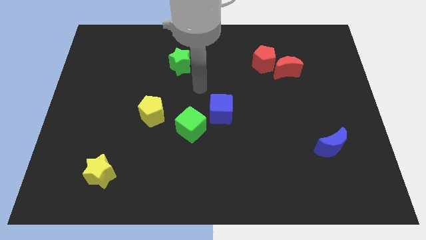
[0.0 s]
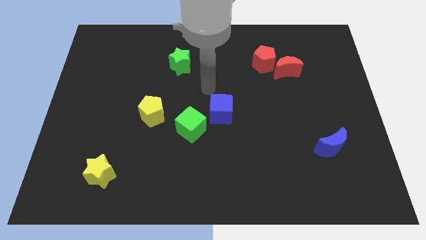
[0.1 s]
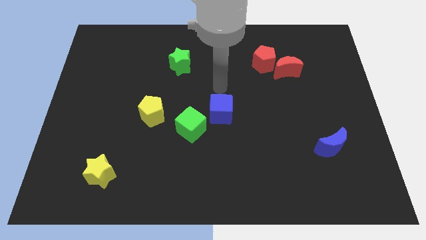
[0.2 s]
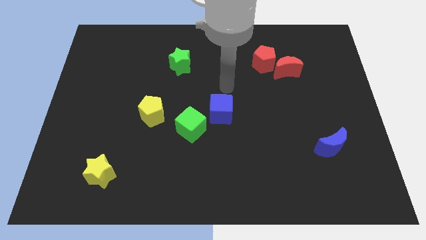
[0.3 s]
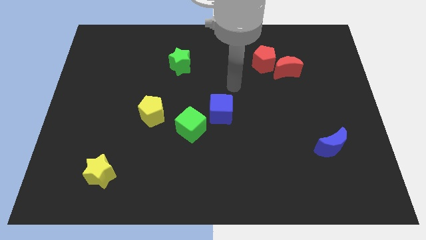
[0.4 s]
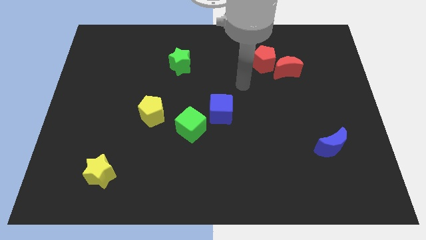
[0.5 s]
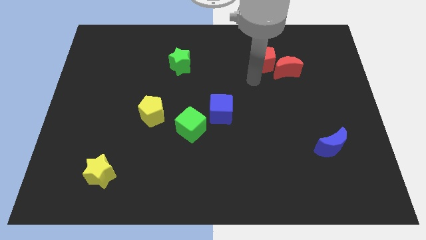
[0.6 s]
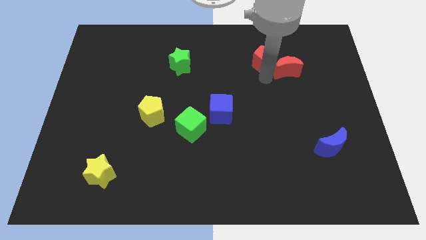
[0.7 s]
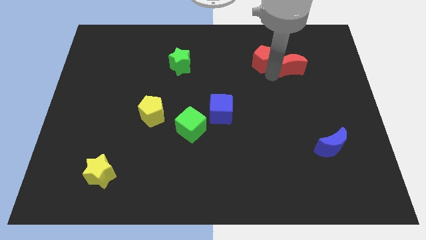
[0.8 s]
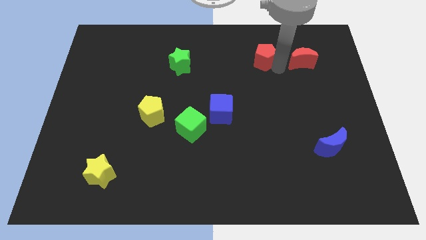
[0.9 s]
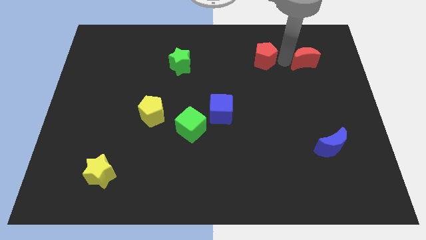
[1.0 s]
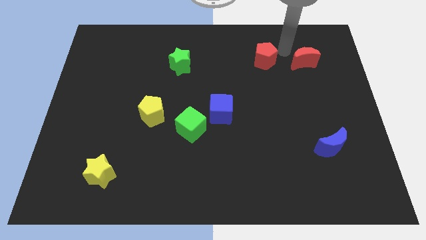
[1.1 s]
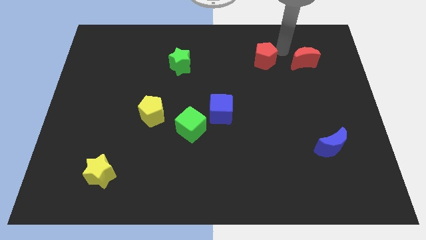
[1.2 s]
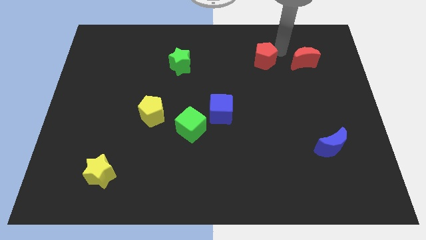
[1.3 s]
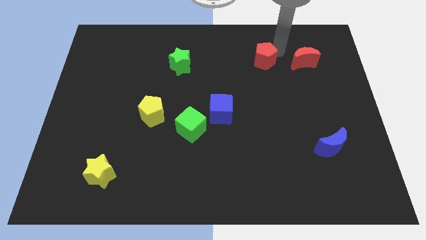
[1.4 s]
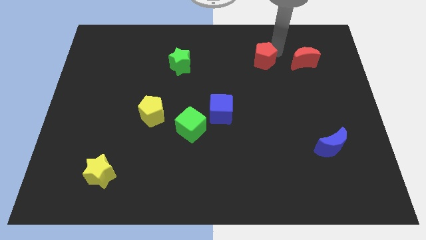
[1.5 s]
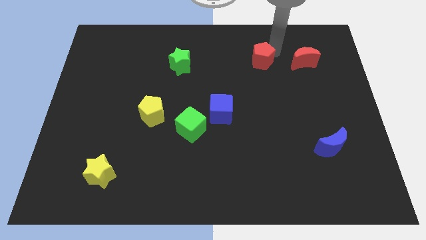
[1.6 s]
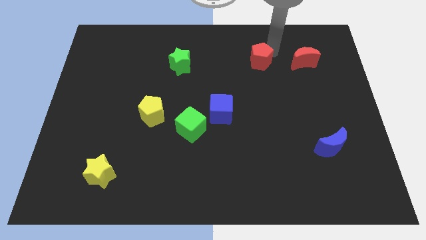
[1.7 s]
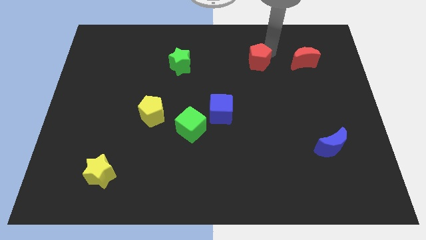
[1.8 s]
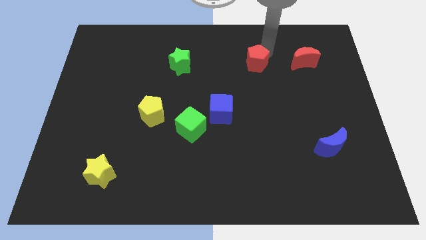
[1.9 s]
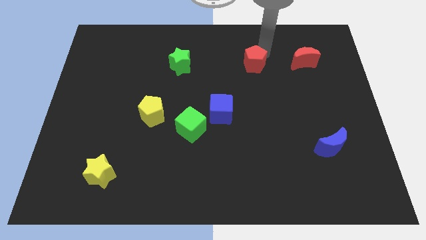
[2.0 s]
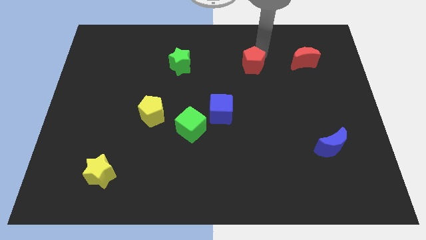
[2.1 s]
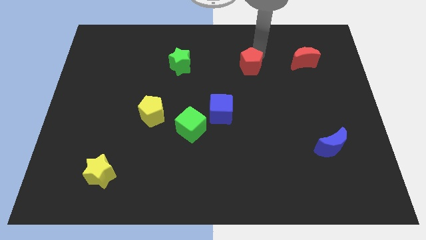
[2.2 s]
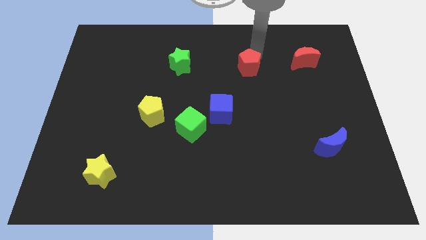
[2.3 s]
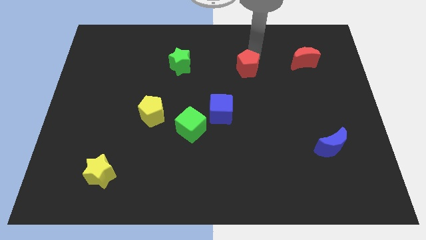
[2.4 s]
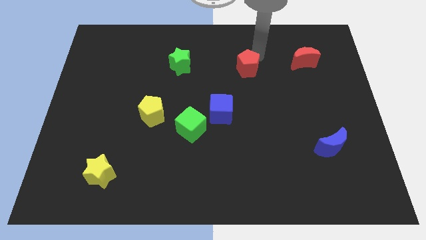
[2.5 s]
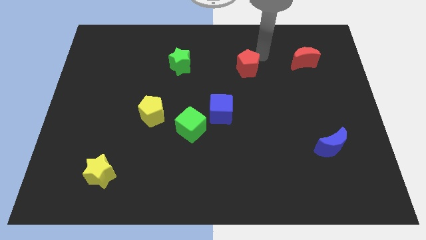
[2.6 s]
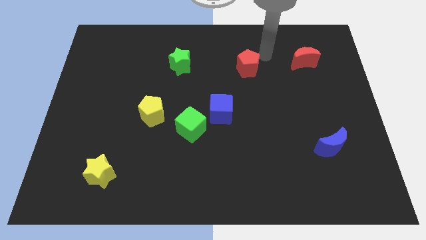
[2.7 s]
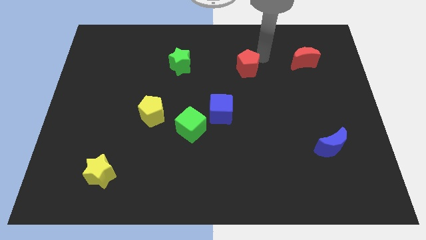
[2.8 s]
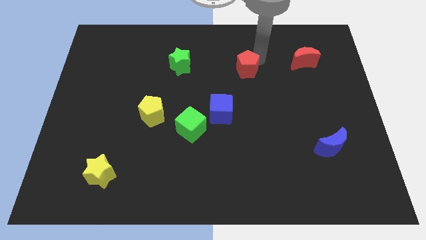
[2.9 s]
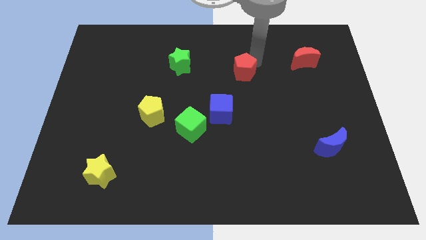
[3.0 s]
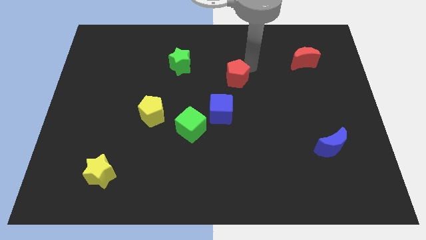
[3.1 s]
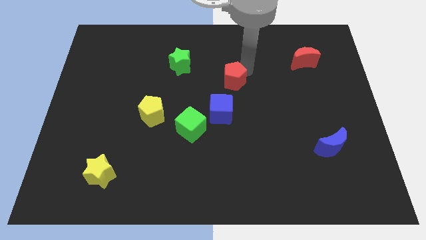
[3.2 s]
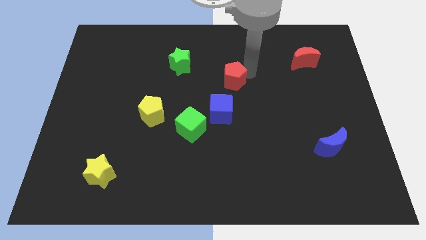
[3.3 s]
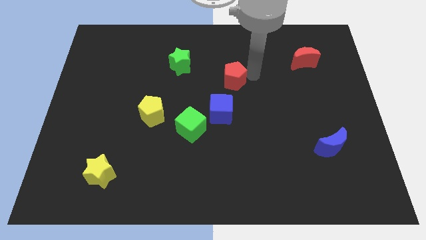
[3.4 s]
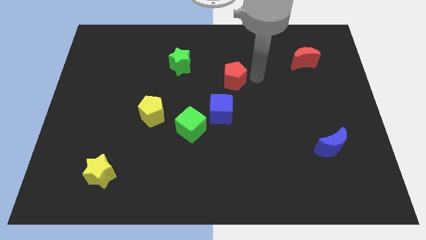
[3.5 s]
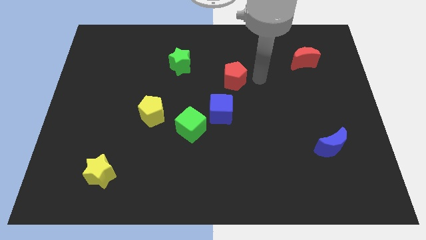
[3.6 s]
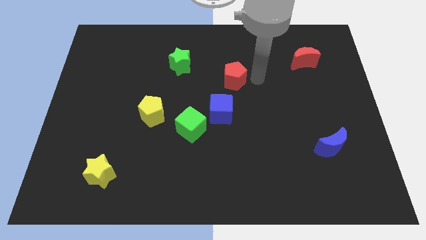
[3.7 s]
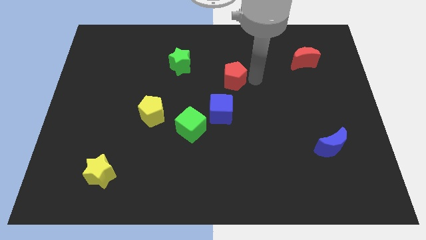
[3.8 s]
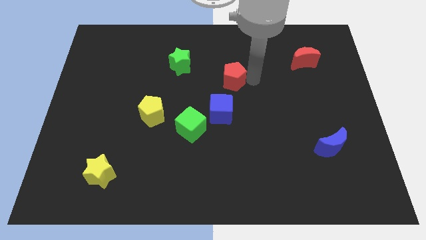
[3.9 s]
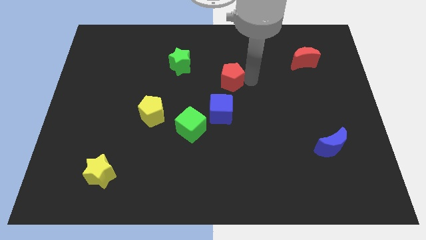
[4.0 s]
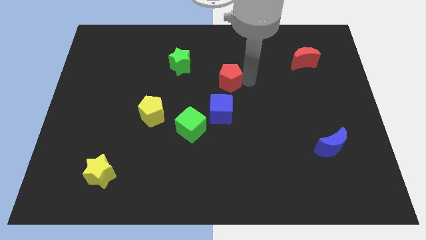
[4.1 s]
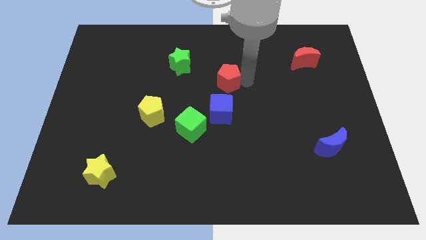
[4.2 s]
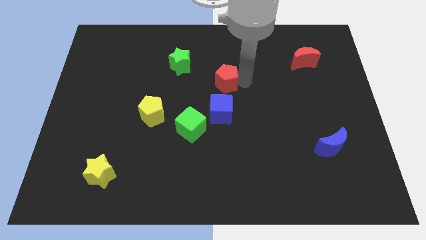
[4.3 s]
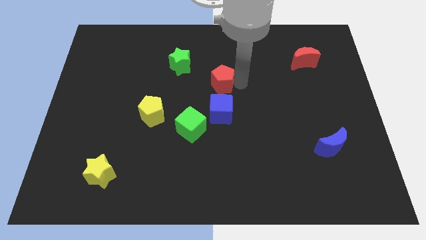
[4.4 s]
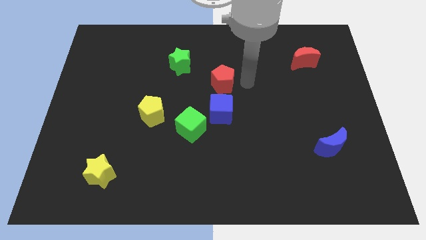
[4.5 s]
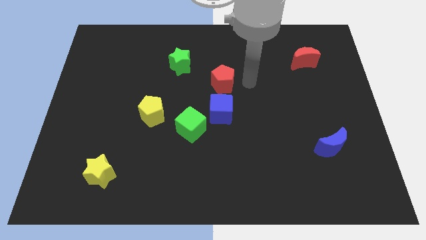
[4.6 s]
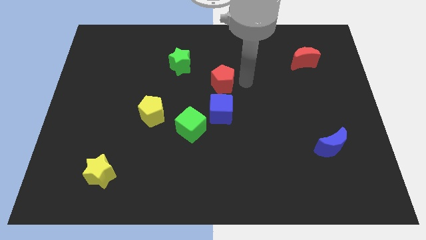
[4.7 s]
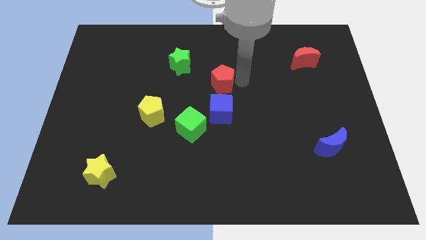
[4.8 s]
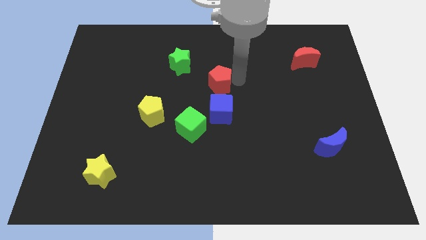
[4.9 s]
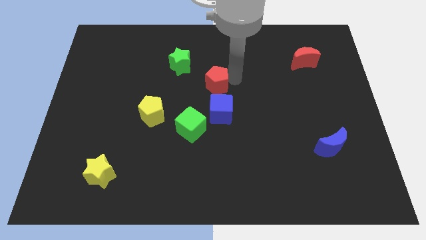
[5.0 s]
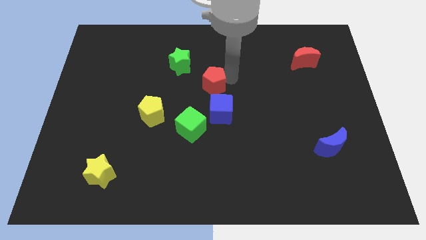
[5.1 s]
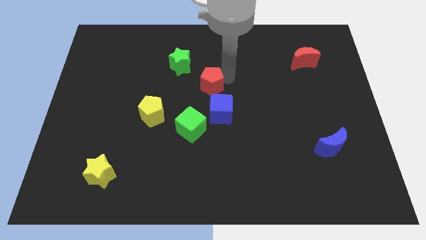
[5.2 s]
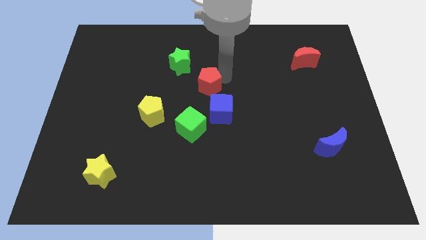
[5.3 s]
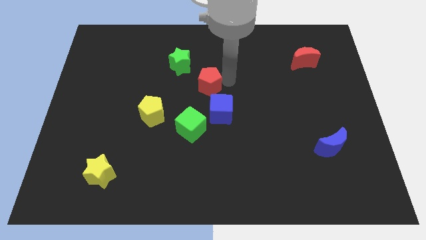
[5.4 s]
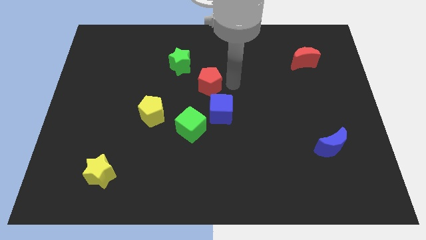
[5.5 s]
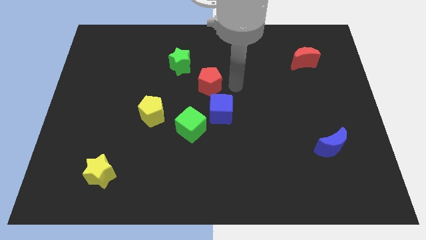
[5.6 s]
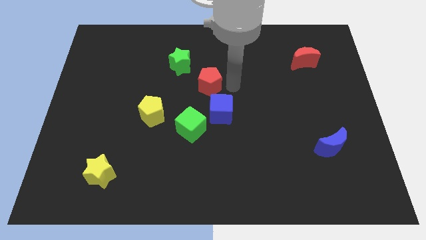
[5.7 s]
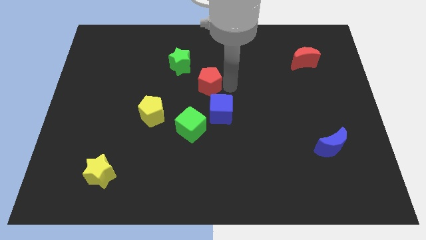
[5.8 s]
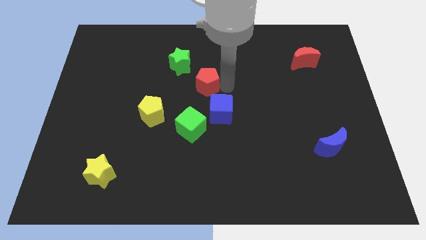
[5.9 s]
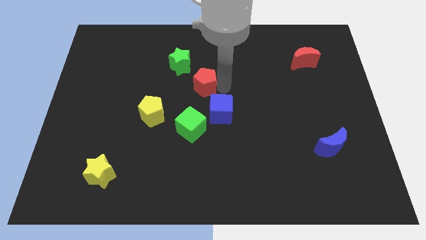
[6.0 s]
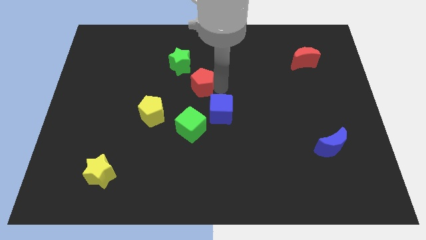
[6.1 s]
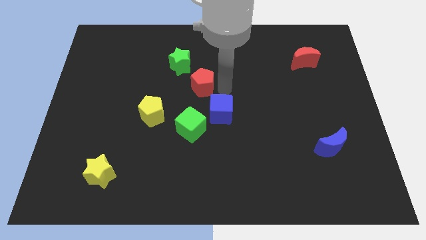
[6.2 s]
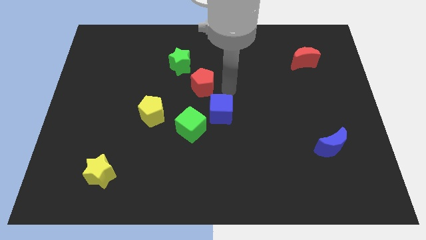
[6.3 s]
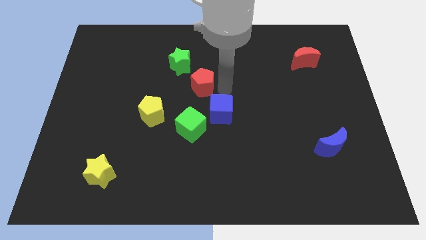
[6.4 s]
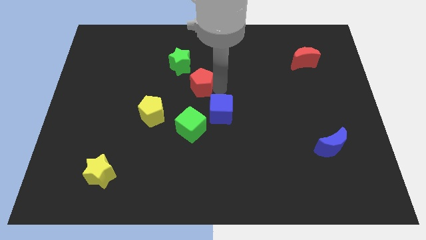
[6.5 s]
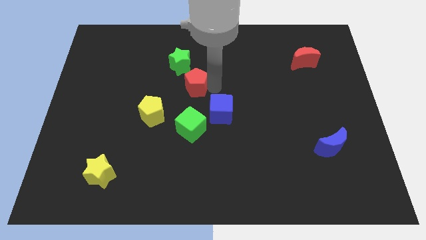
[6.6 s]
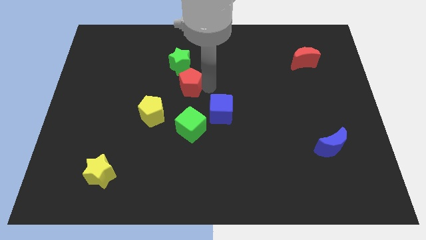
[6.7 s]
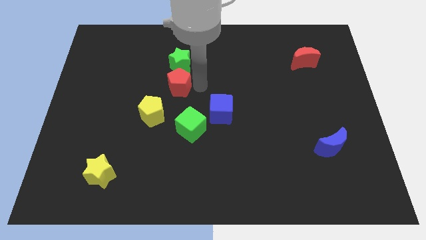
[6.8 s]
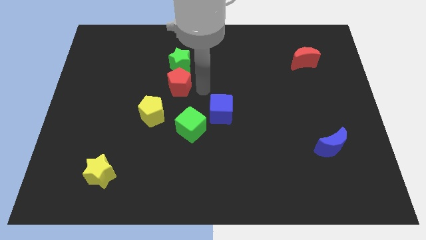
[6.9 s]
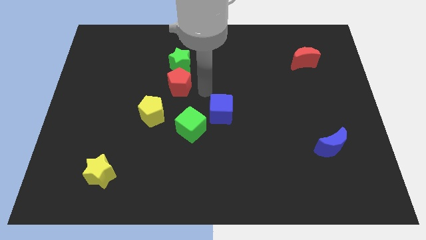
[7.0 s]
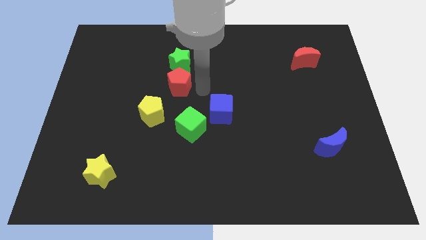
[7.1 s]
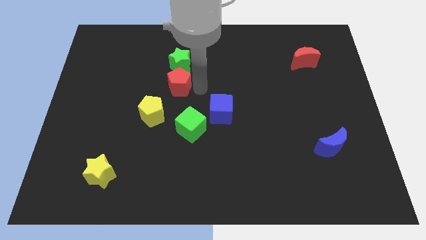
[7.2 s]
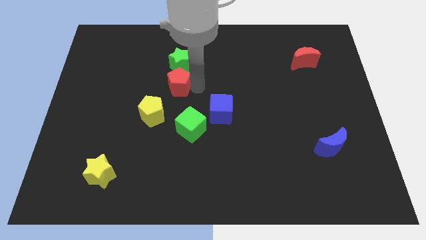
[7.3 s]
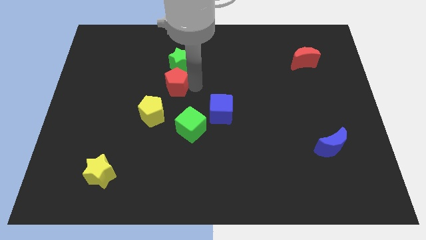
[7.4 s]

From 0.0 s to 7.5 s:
push the red pentagon diagonally down and to the left of the green star
